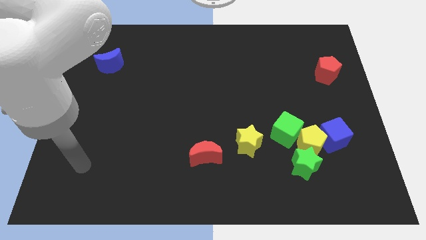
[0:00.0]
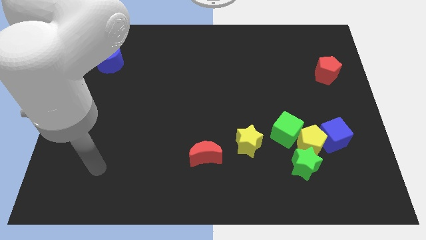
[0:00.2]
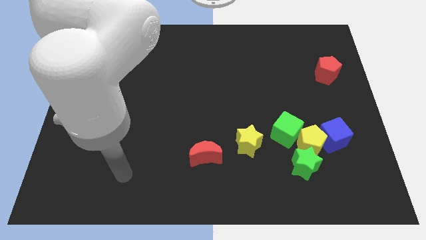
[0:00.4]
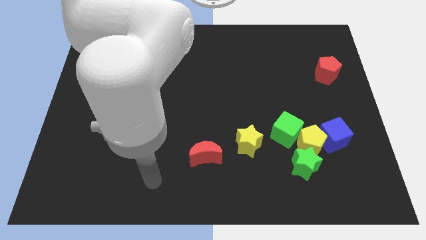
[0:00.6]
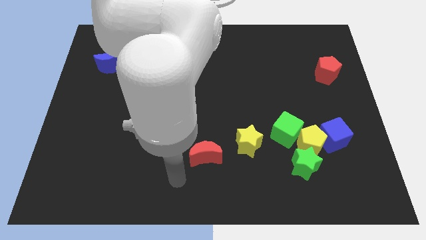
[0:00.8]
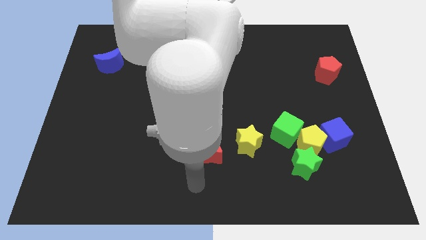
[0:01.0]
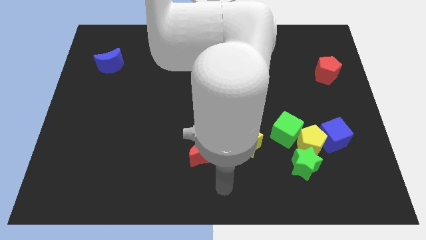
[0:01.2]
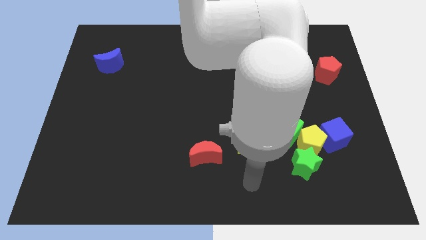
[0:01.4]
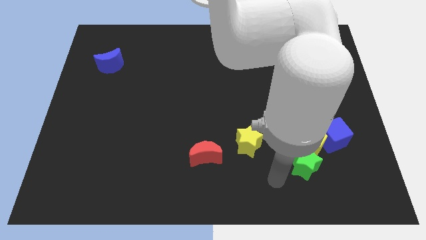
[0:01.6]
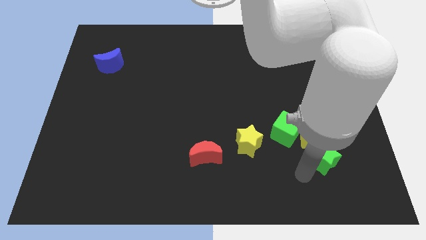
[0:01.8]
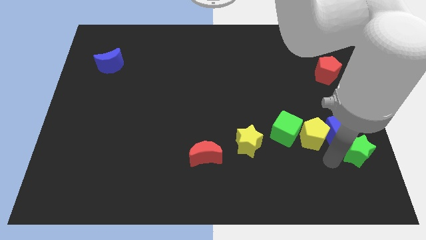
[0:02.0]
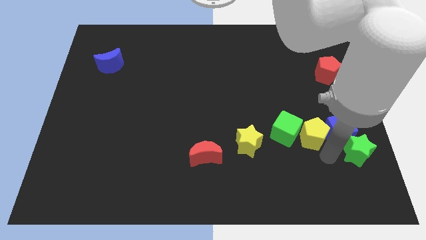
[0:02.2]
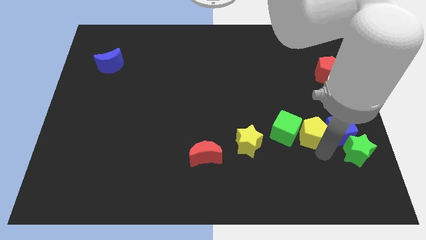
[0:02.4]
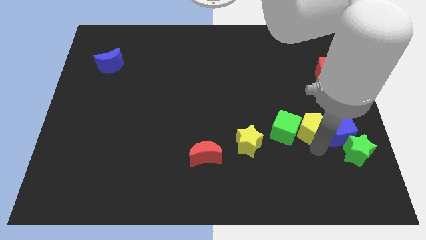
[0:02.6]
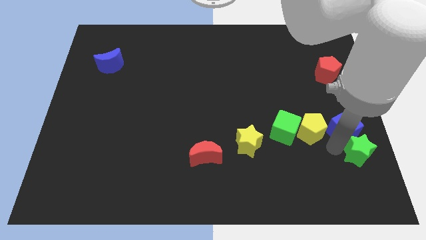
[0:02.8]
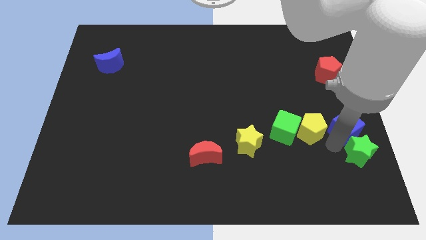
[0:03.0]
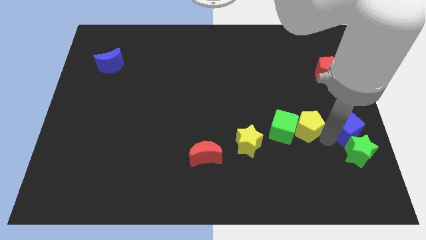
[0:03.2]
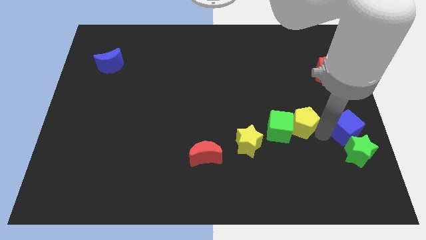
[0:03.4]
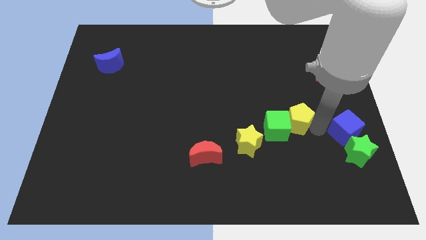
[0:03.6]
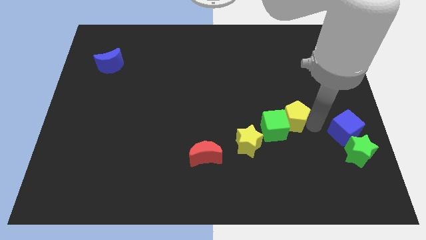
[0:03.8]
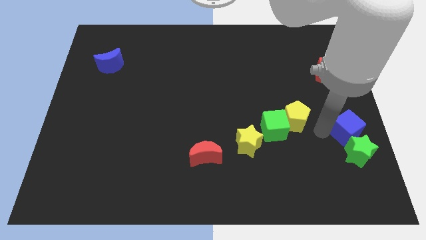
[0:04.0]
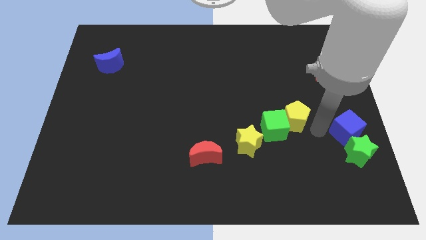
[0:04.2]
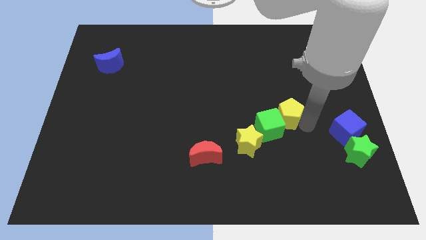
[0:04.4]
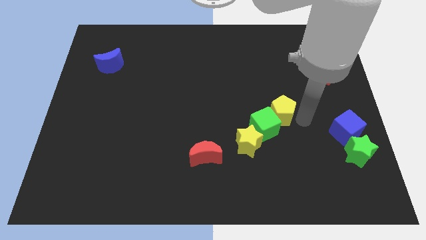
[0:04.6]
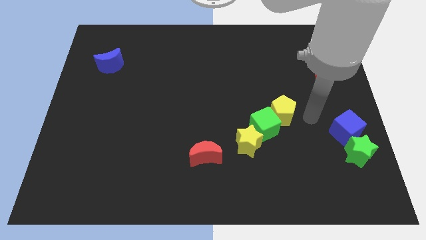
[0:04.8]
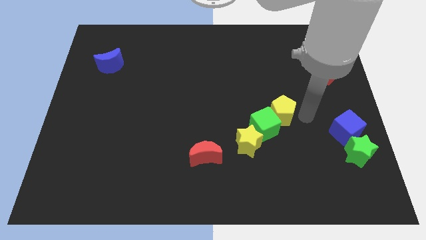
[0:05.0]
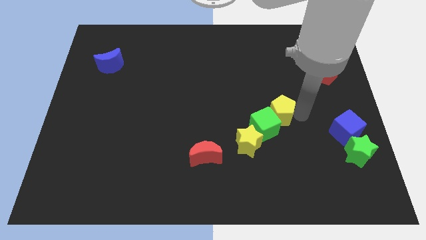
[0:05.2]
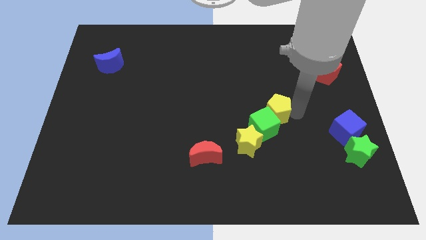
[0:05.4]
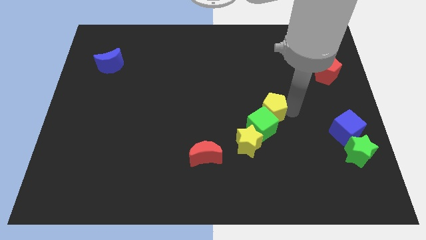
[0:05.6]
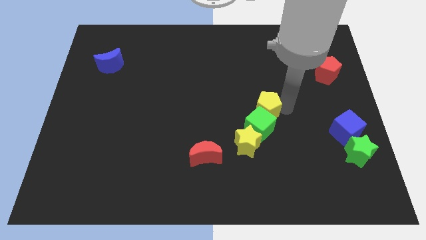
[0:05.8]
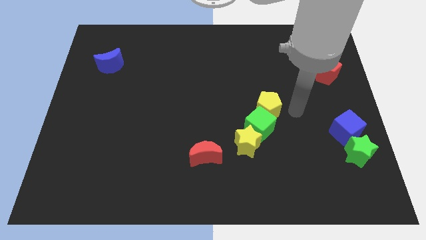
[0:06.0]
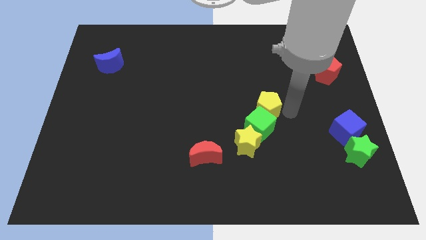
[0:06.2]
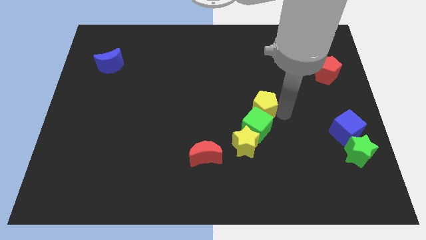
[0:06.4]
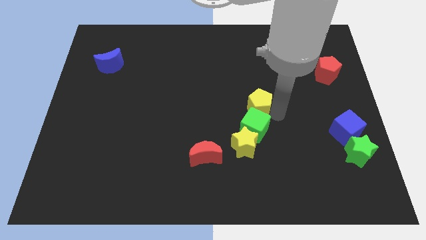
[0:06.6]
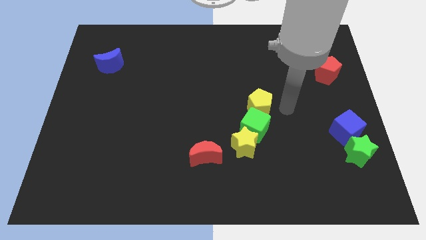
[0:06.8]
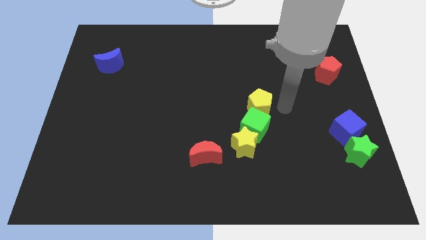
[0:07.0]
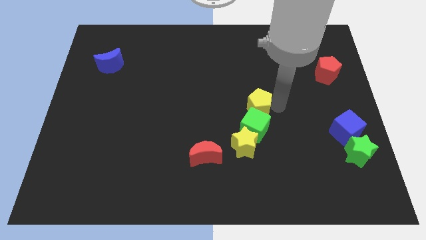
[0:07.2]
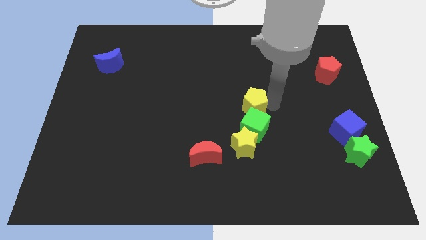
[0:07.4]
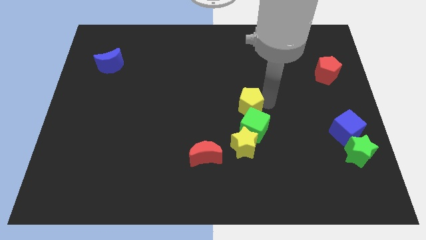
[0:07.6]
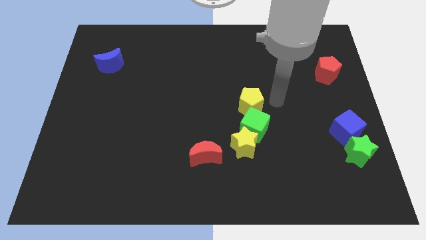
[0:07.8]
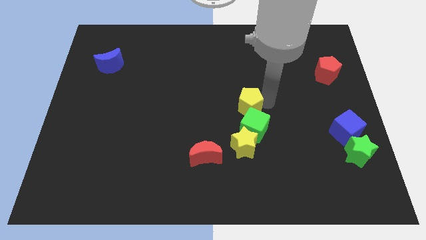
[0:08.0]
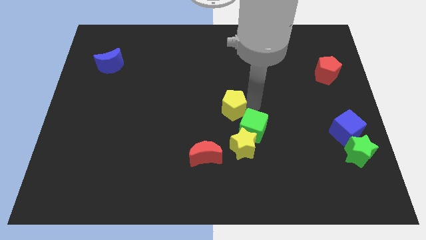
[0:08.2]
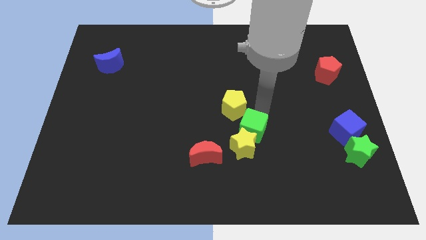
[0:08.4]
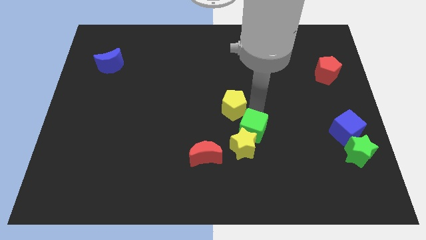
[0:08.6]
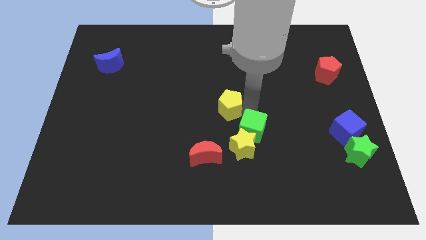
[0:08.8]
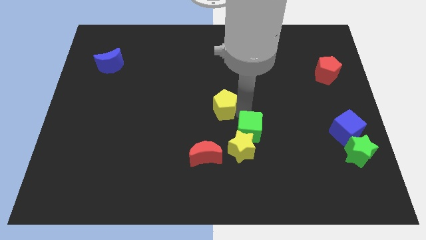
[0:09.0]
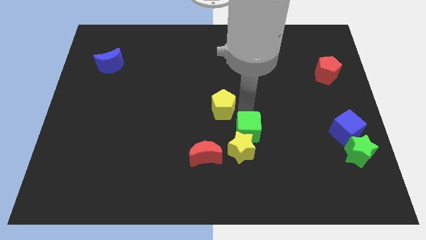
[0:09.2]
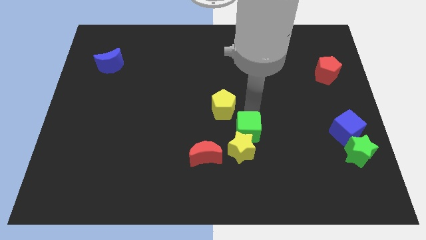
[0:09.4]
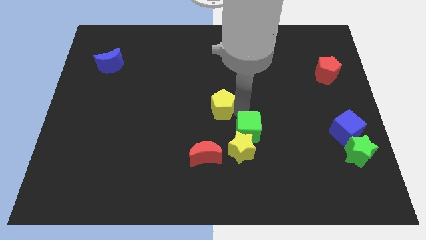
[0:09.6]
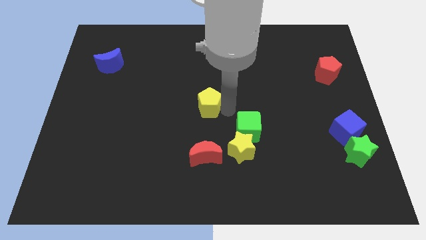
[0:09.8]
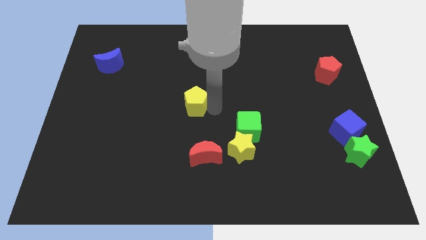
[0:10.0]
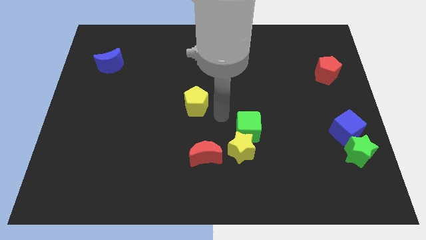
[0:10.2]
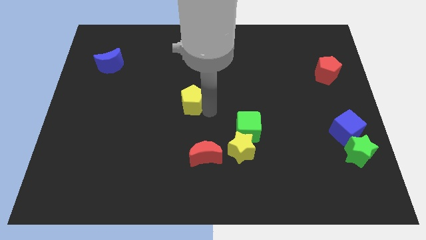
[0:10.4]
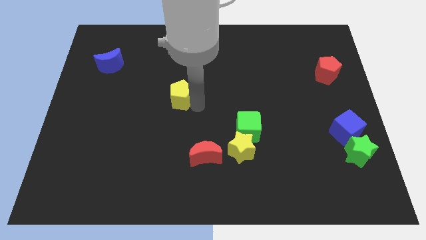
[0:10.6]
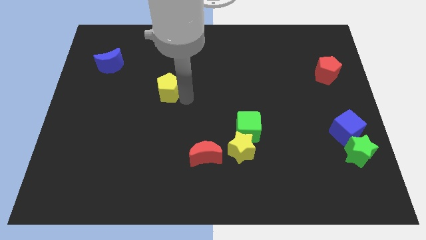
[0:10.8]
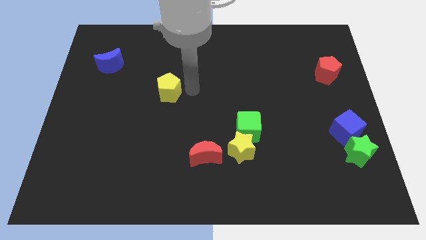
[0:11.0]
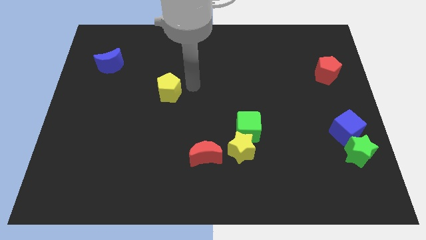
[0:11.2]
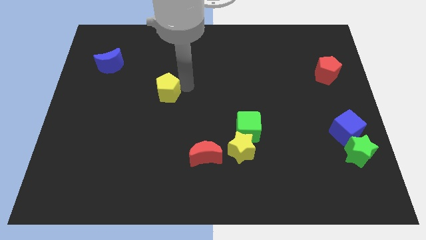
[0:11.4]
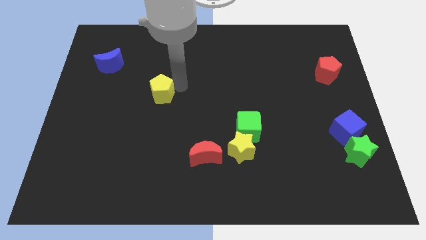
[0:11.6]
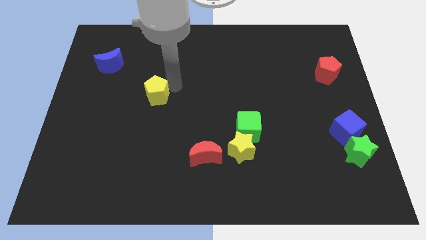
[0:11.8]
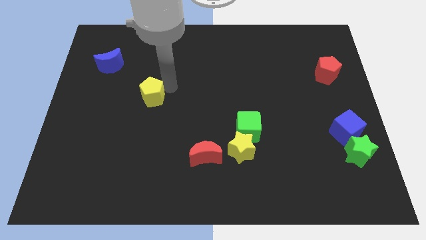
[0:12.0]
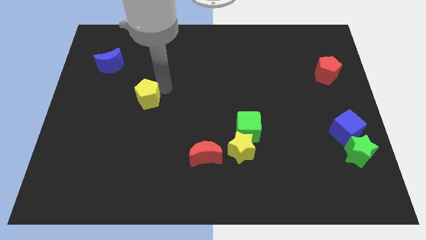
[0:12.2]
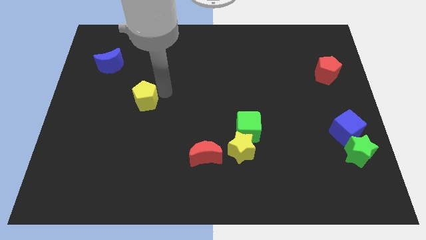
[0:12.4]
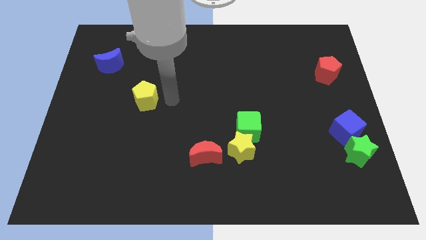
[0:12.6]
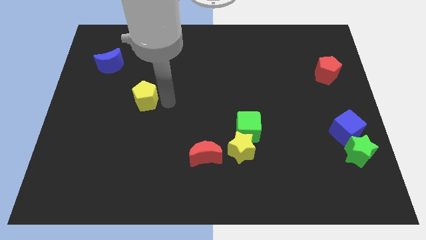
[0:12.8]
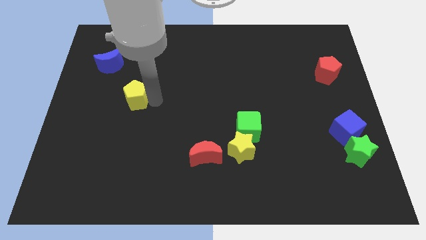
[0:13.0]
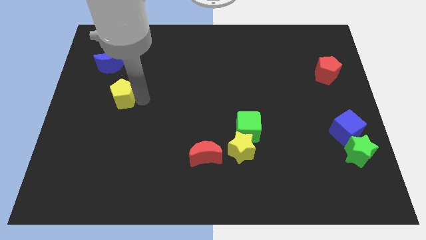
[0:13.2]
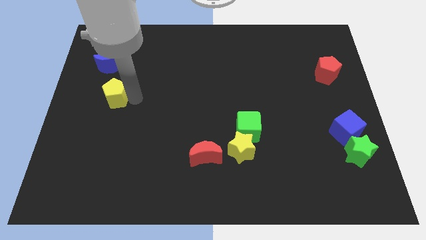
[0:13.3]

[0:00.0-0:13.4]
slide the yellow pentagon to the bottom side of the blue moon
